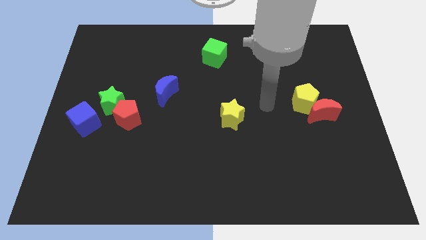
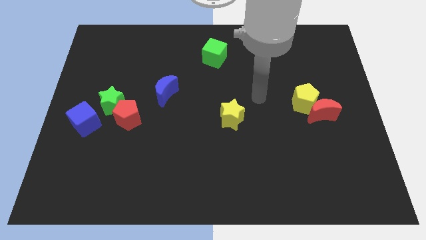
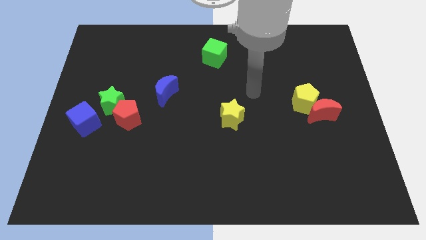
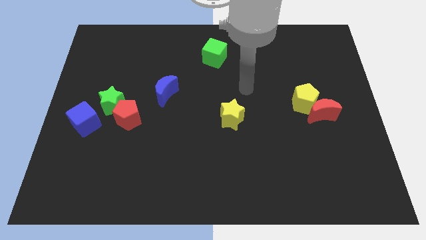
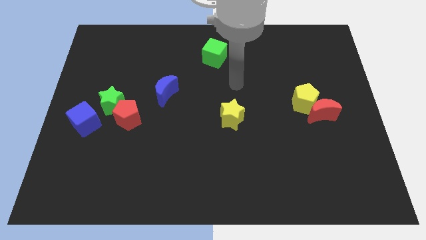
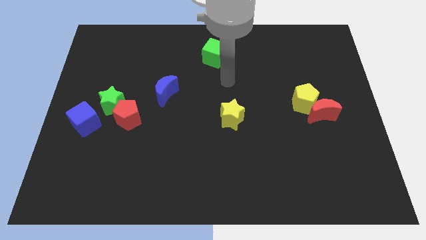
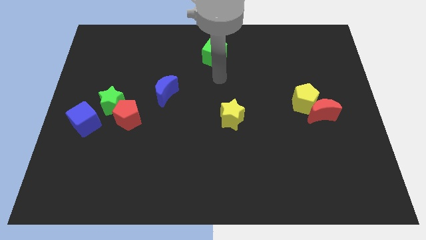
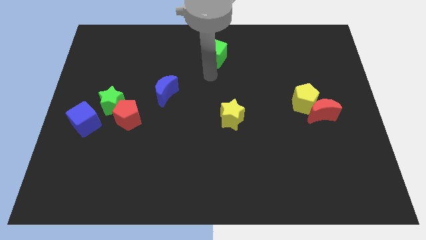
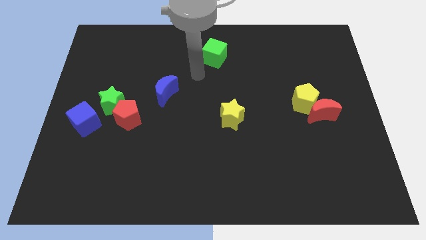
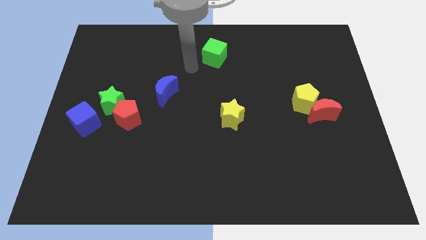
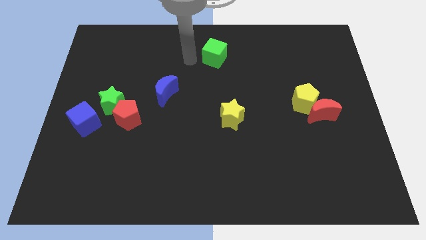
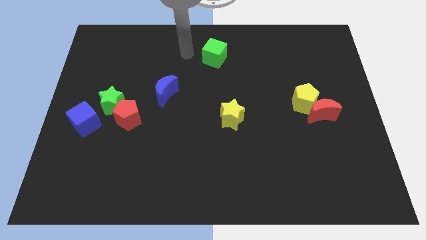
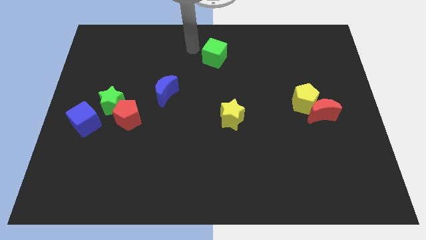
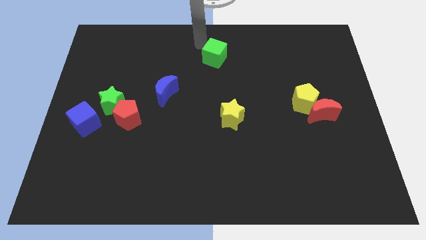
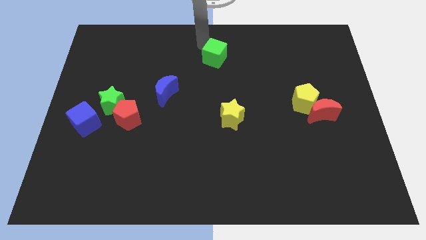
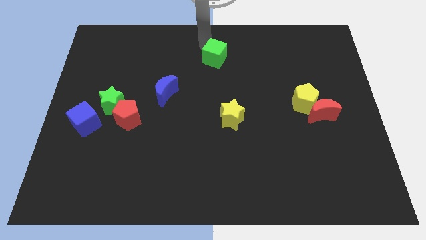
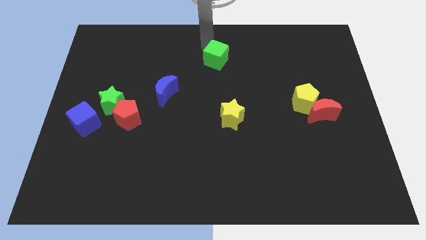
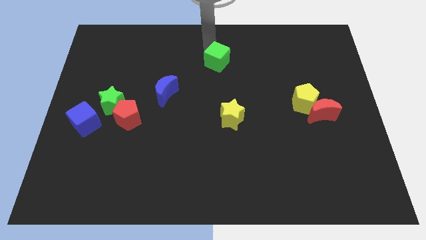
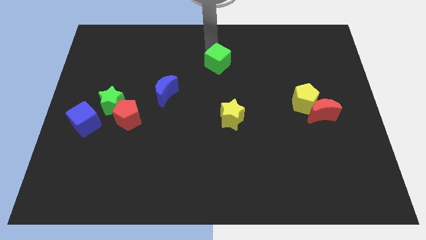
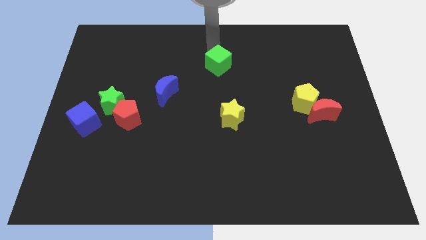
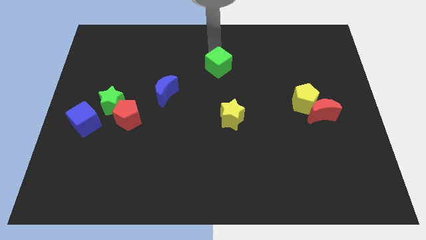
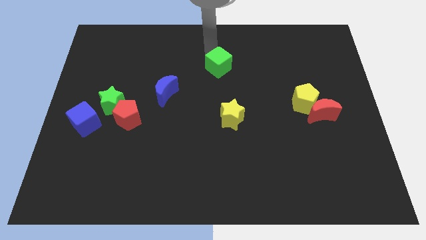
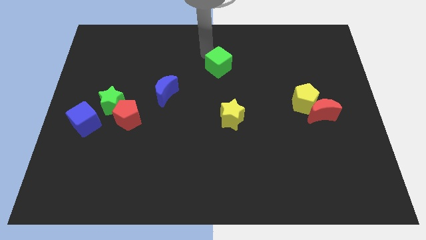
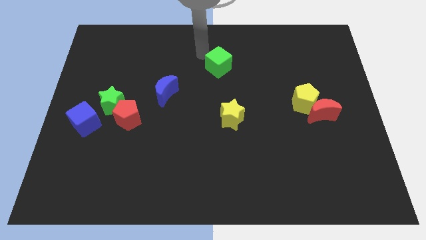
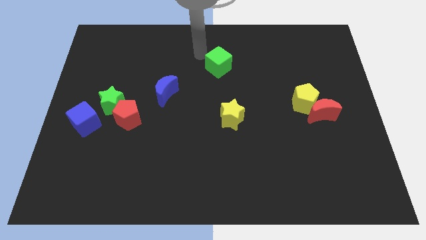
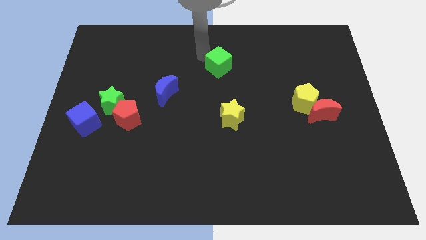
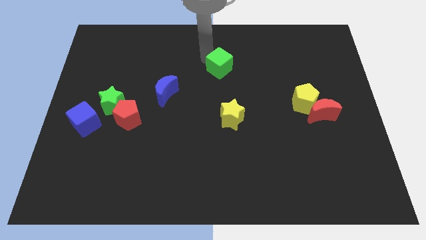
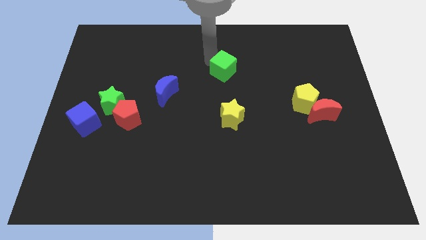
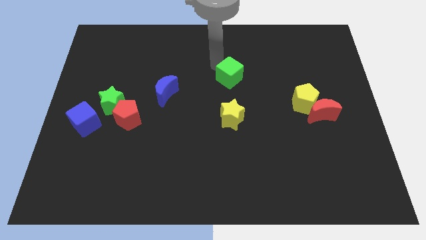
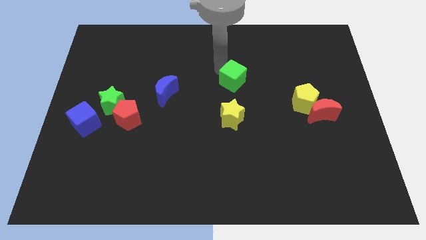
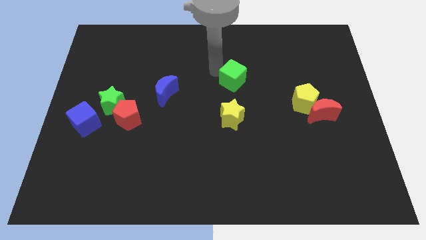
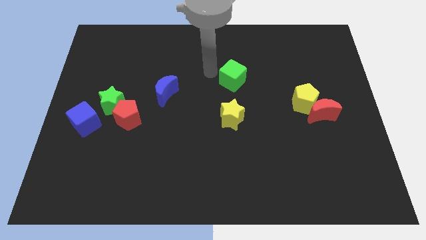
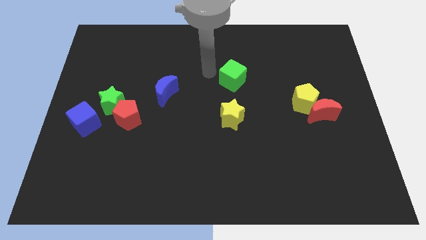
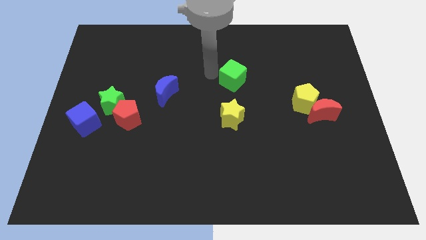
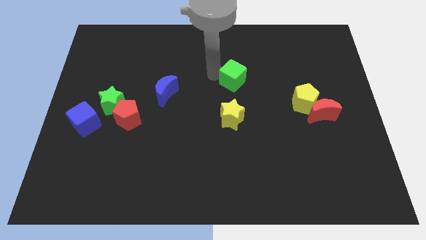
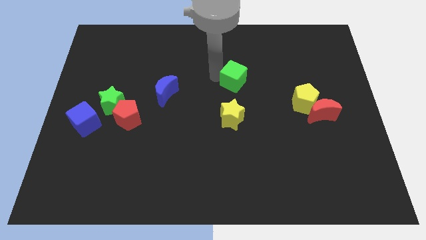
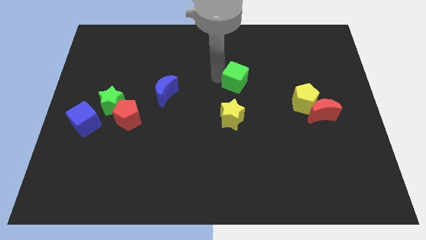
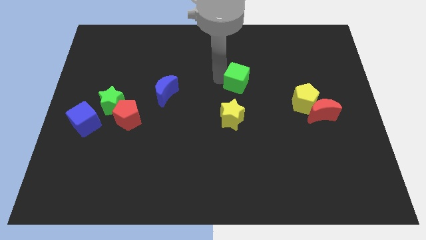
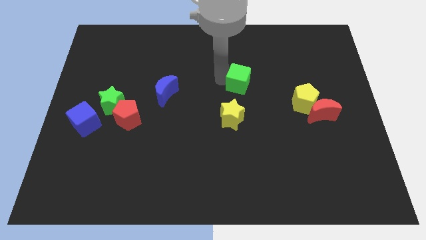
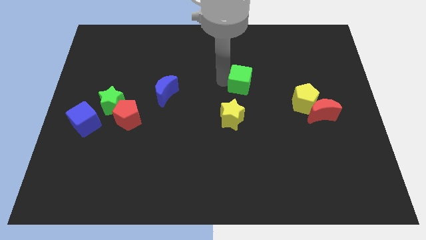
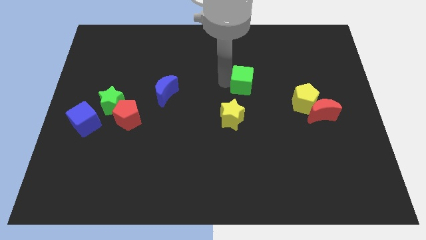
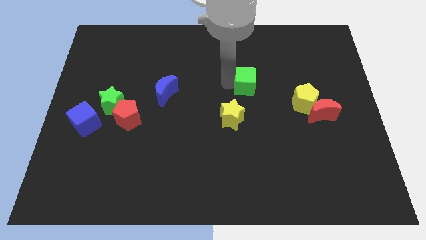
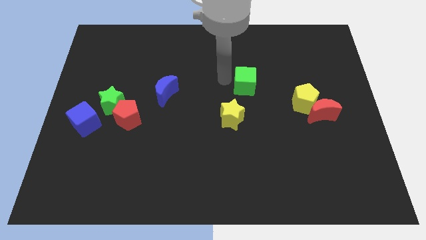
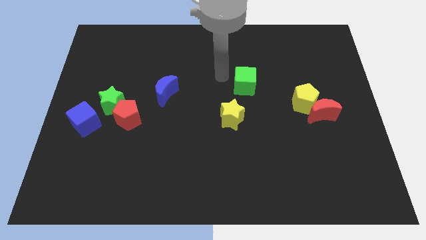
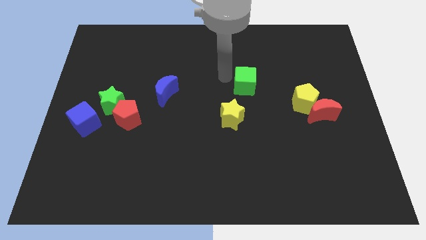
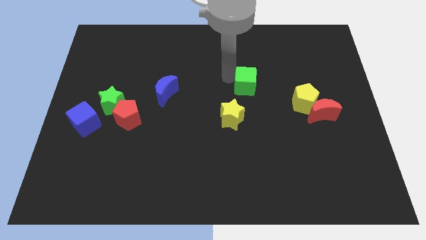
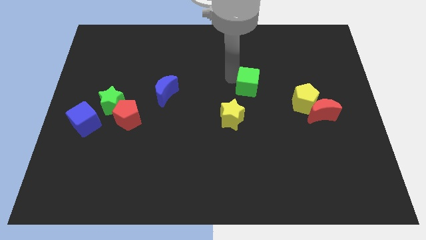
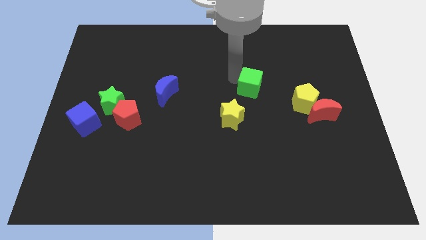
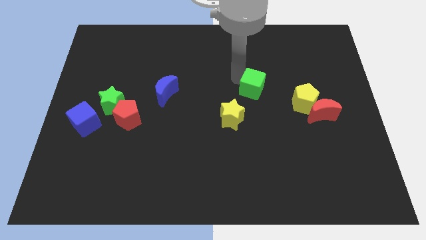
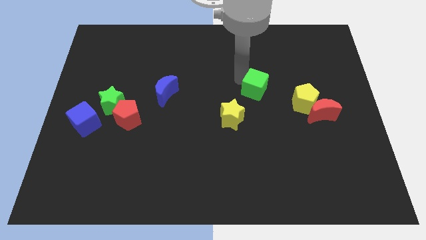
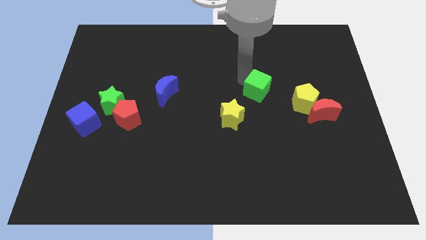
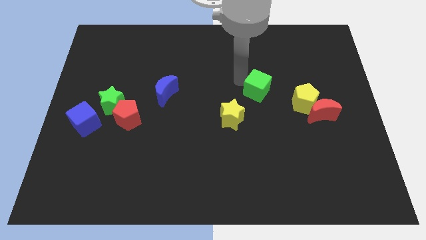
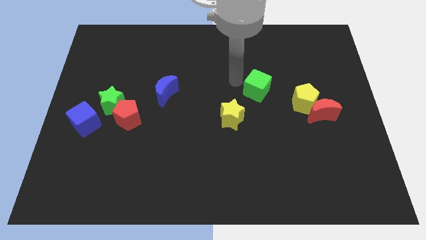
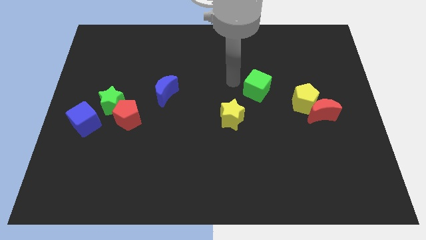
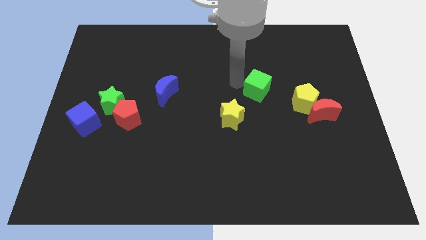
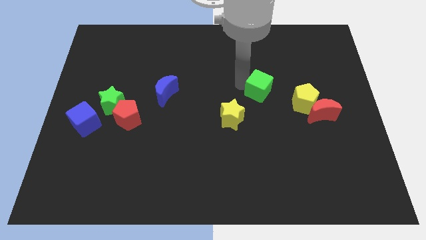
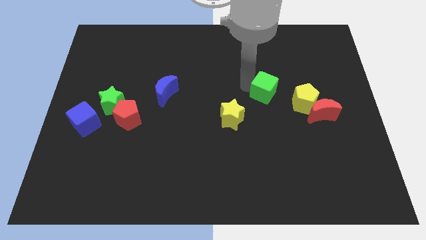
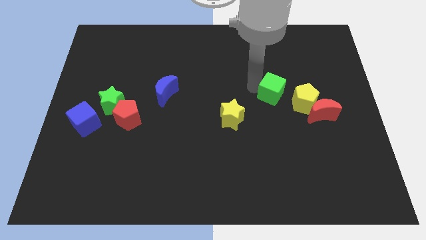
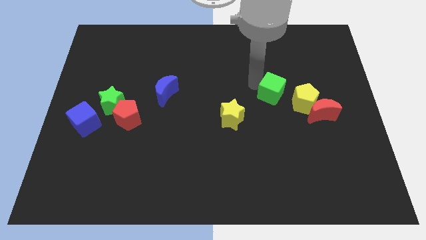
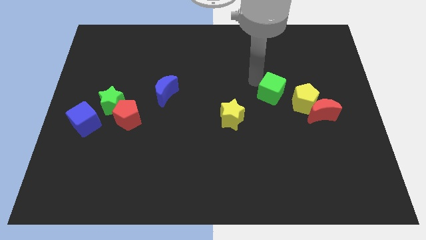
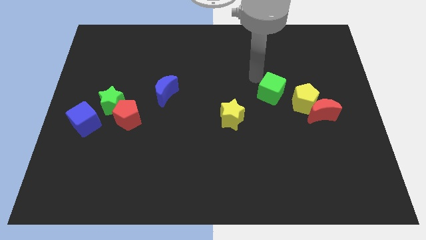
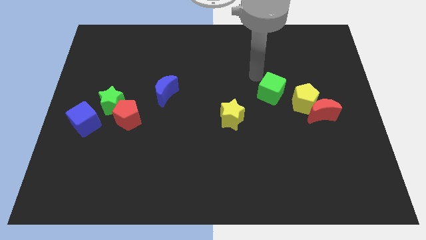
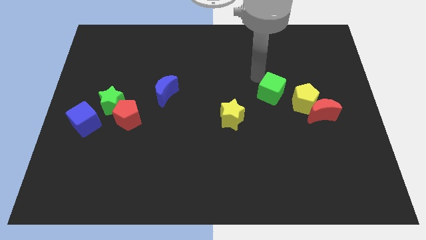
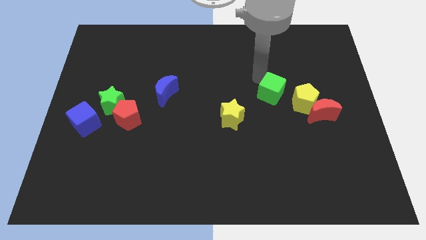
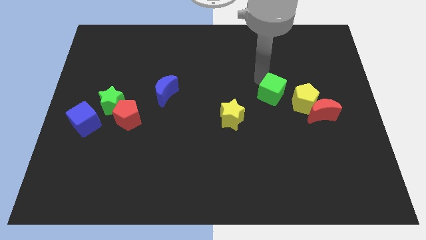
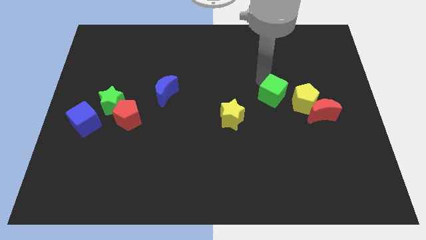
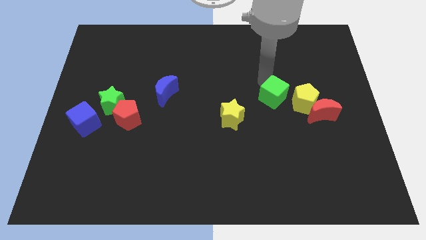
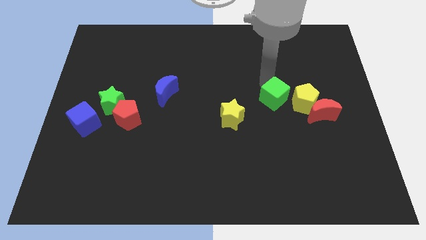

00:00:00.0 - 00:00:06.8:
slide the green cube diagonally down and right

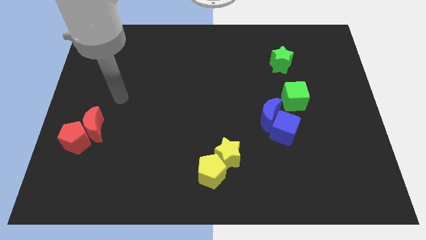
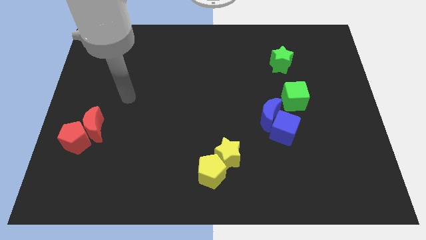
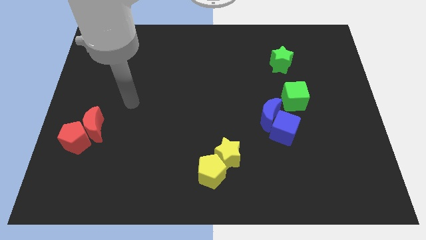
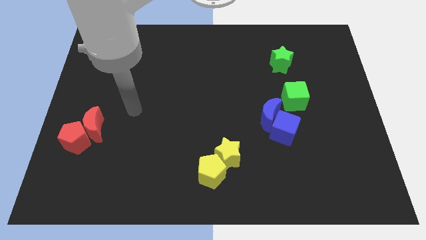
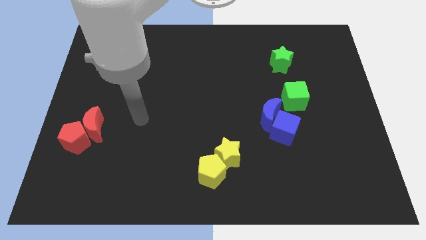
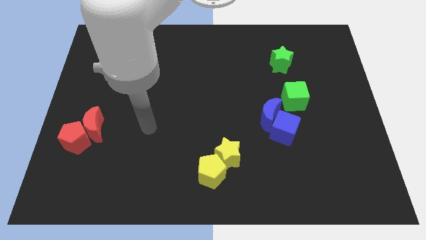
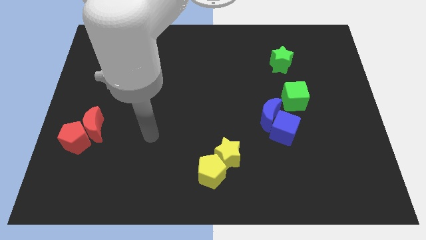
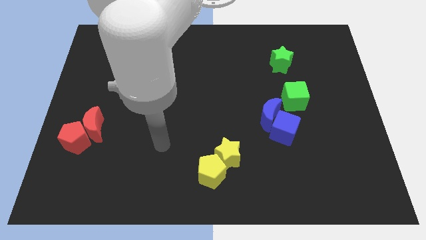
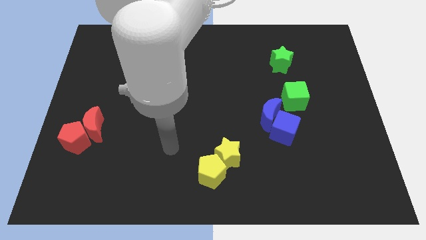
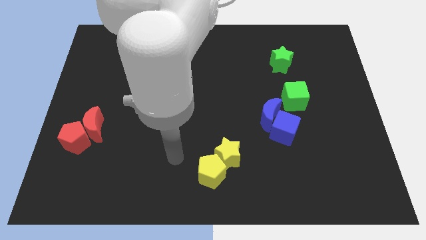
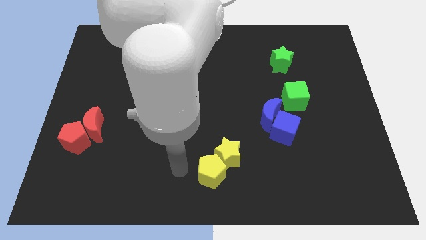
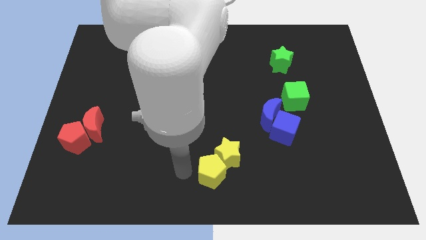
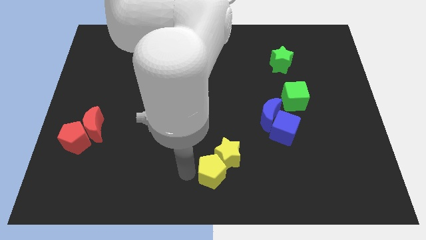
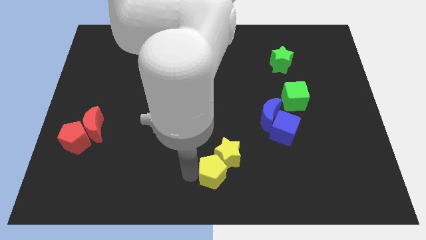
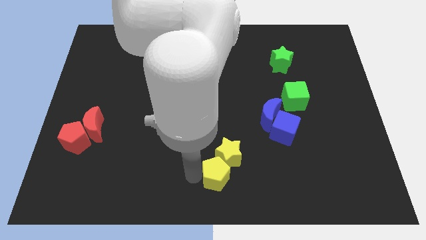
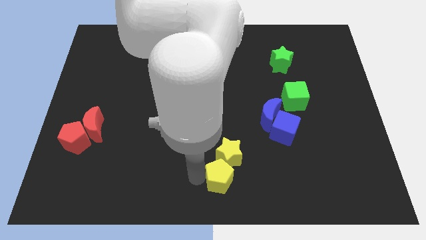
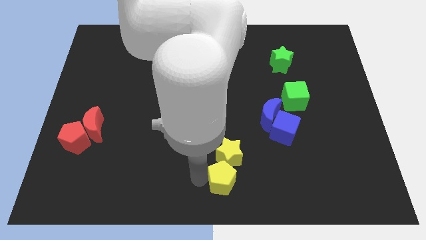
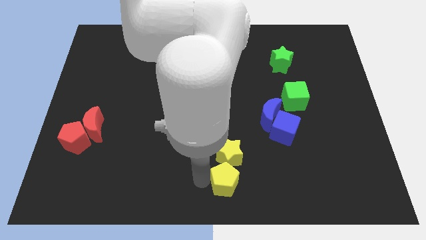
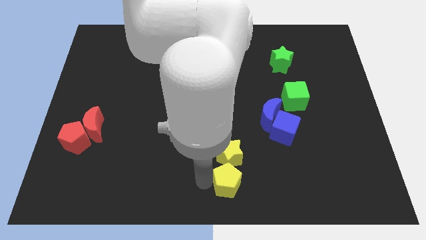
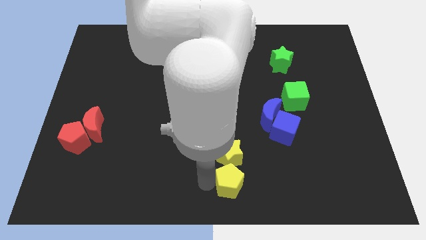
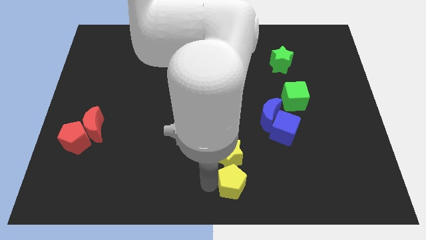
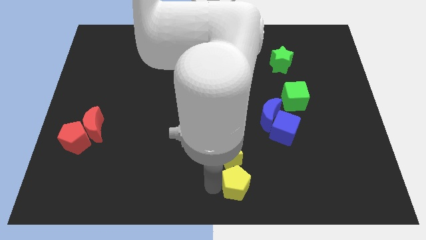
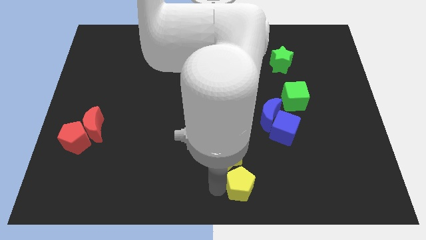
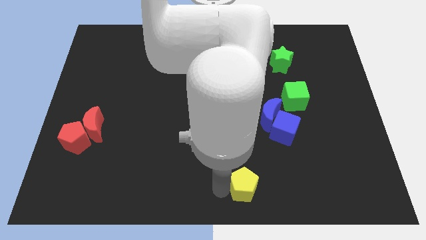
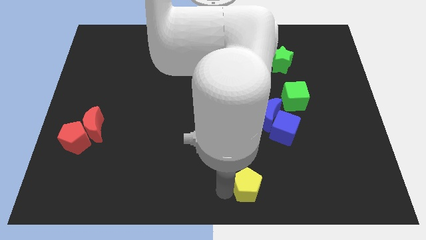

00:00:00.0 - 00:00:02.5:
slide the yellow pentagon a little bit right
